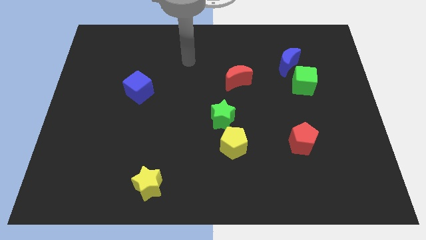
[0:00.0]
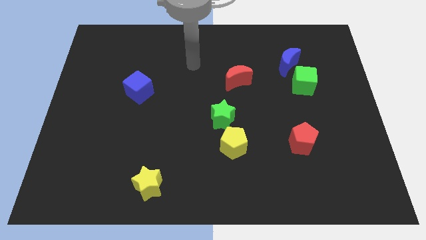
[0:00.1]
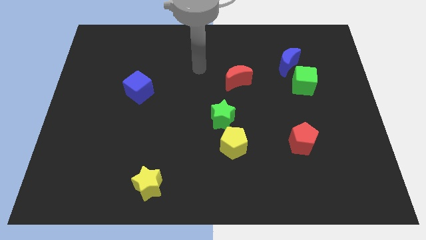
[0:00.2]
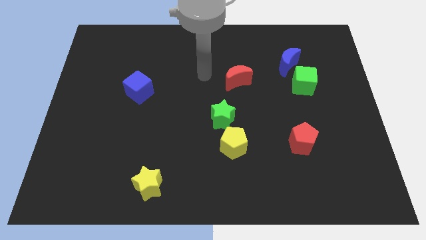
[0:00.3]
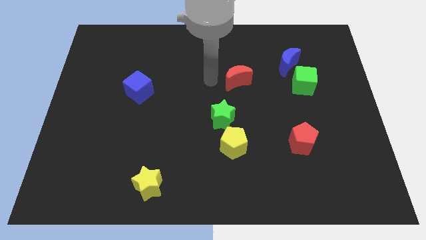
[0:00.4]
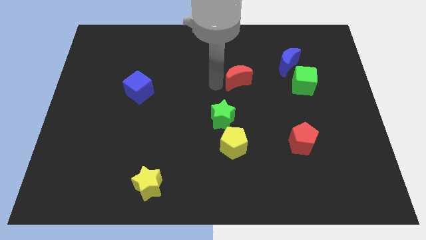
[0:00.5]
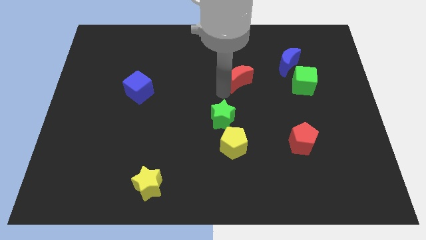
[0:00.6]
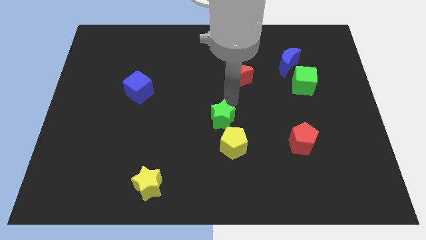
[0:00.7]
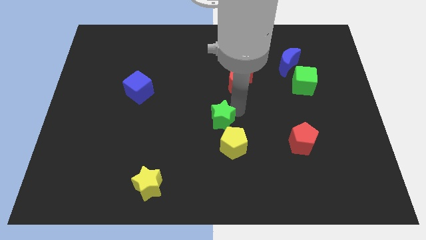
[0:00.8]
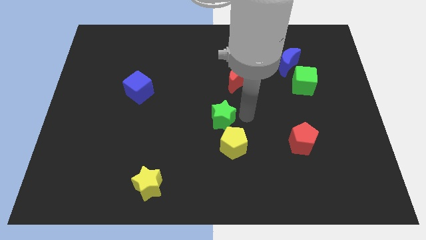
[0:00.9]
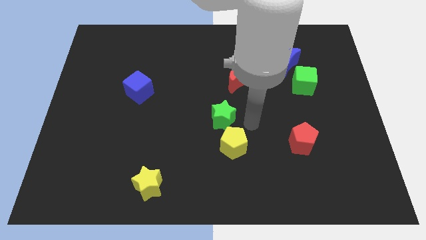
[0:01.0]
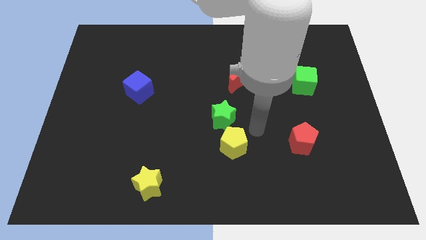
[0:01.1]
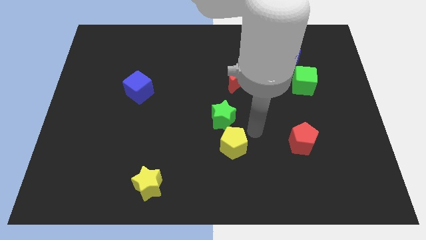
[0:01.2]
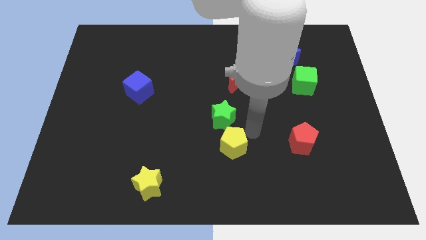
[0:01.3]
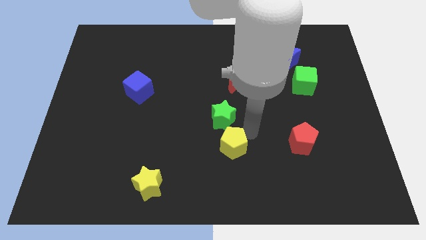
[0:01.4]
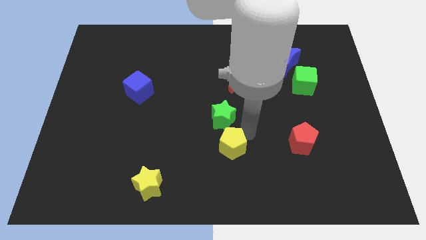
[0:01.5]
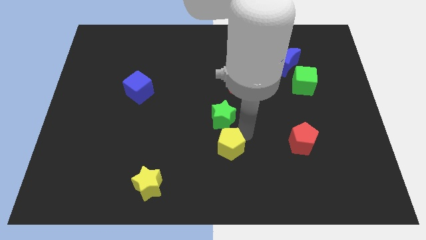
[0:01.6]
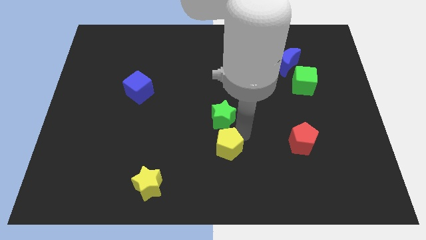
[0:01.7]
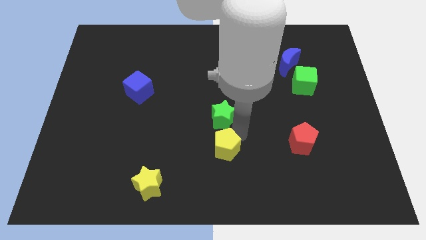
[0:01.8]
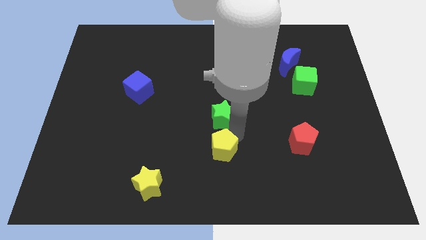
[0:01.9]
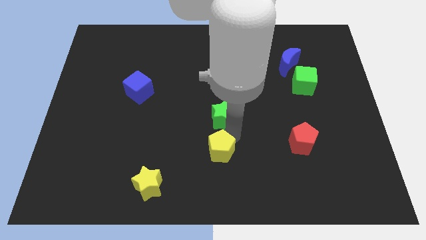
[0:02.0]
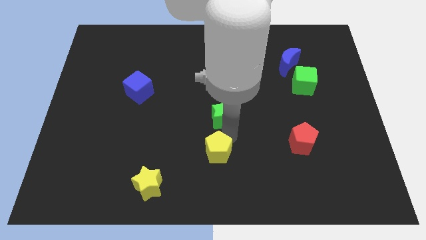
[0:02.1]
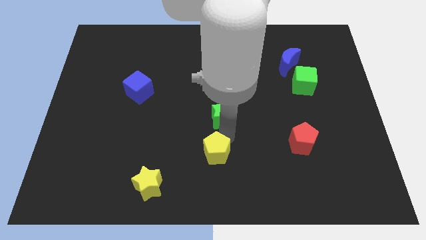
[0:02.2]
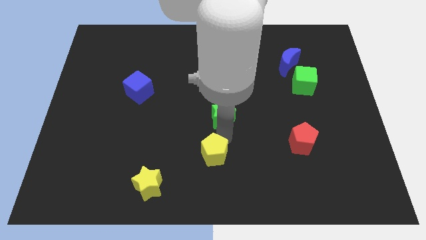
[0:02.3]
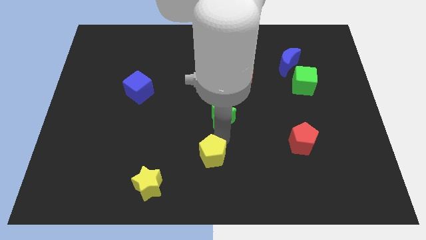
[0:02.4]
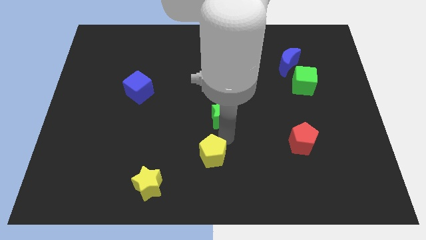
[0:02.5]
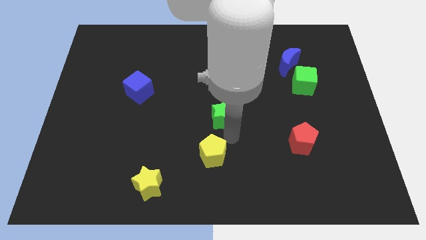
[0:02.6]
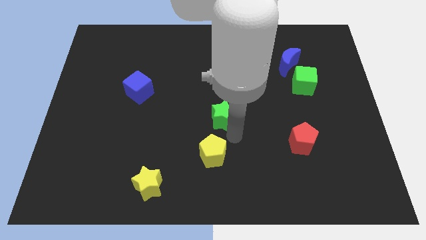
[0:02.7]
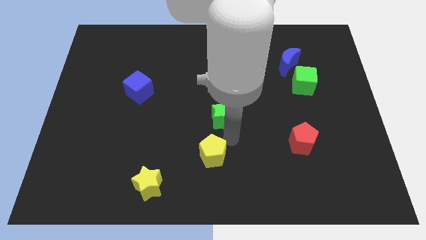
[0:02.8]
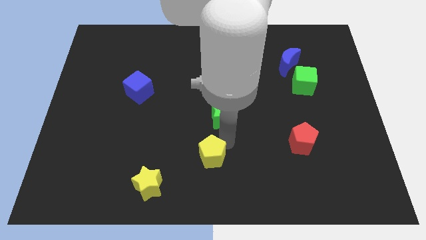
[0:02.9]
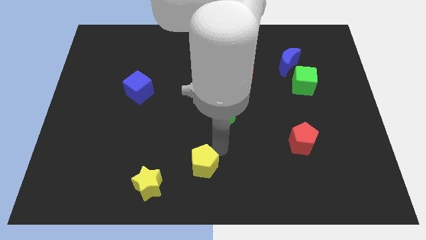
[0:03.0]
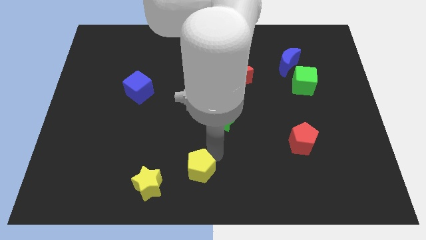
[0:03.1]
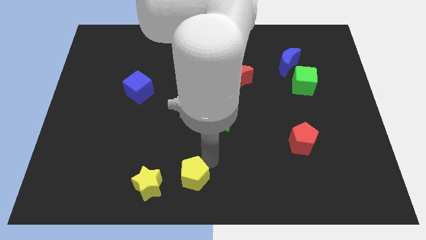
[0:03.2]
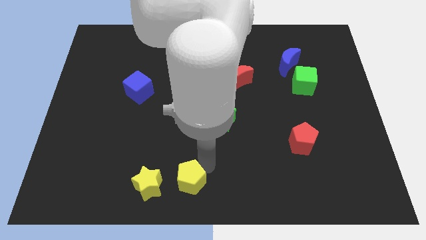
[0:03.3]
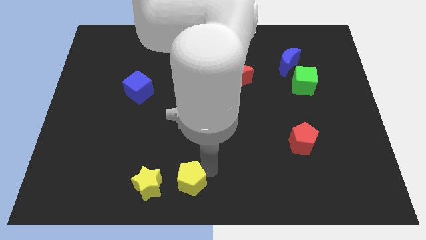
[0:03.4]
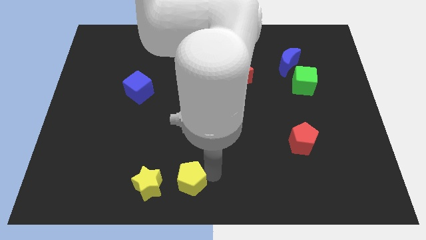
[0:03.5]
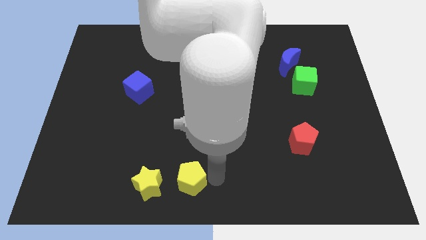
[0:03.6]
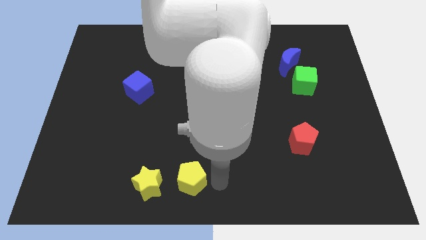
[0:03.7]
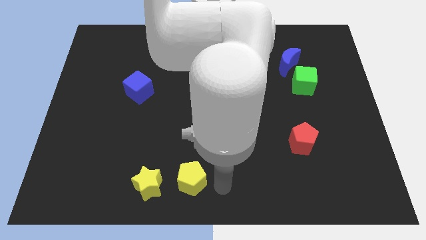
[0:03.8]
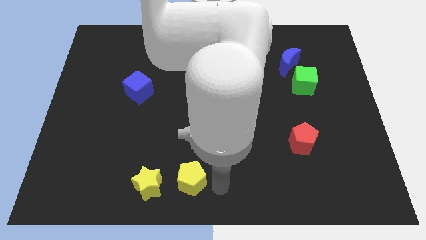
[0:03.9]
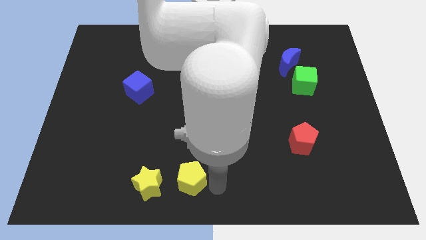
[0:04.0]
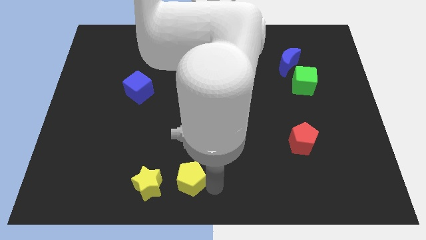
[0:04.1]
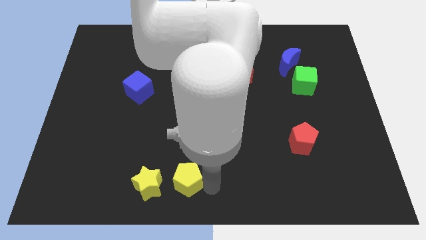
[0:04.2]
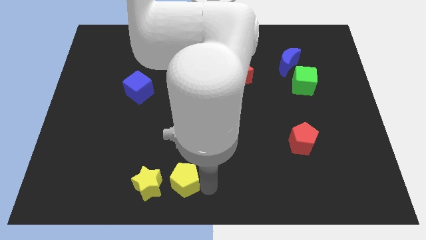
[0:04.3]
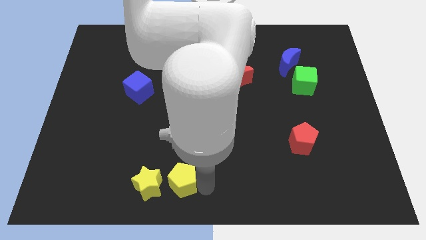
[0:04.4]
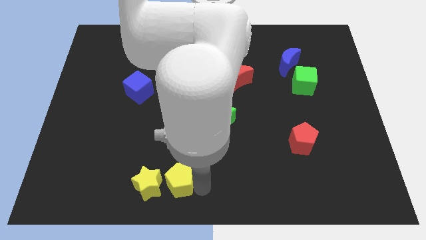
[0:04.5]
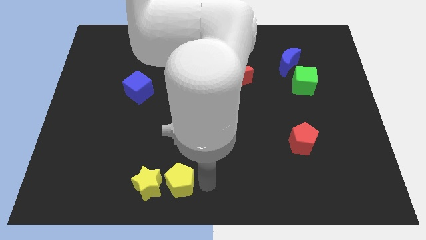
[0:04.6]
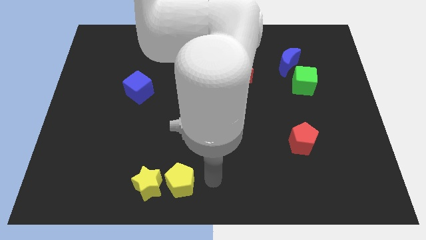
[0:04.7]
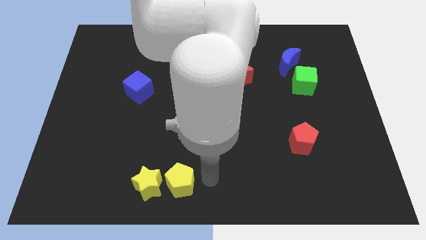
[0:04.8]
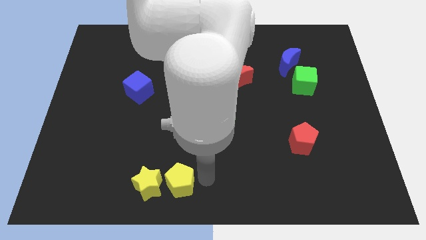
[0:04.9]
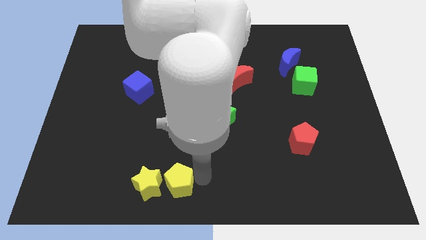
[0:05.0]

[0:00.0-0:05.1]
put the yellow pentagon to the yellow star
